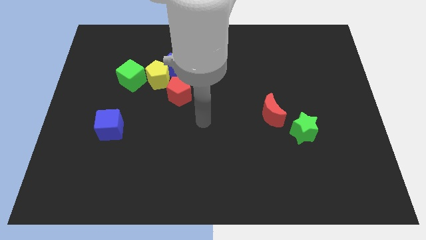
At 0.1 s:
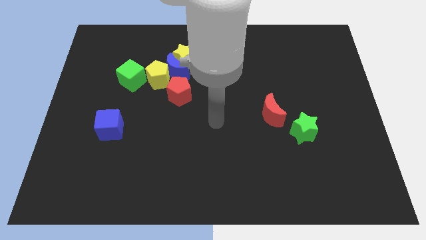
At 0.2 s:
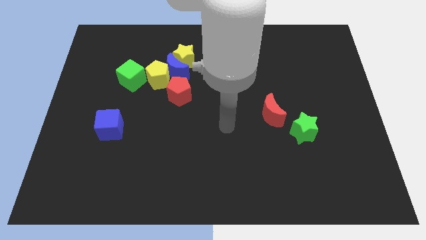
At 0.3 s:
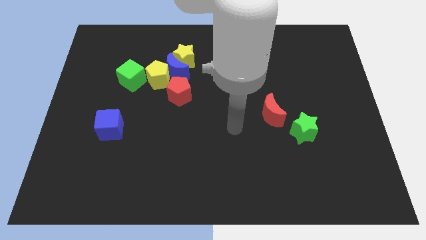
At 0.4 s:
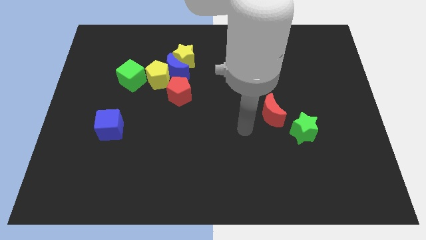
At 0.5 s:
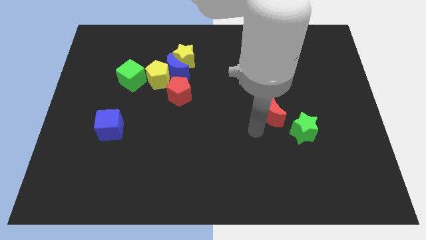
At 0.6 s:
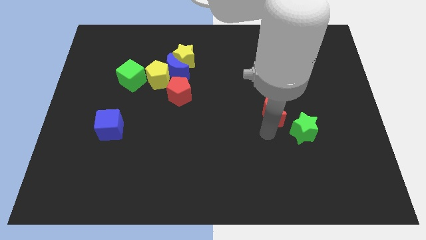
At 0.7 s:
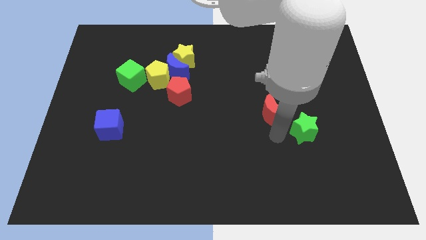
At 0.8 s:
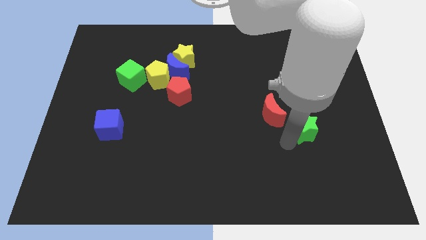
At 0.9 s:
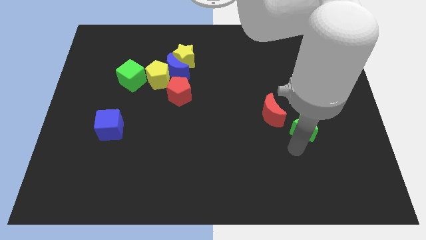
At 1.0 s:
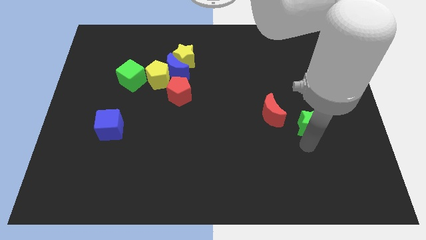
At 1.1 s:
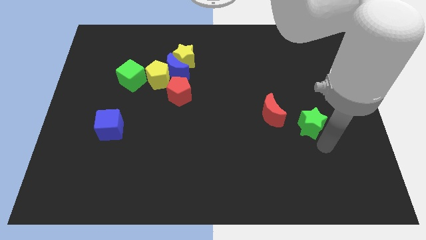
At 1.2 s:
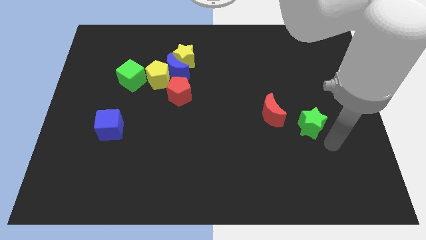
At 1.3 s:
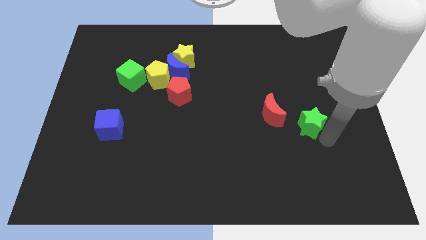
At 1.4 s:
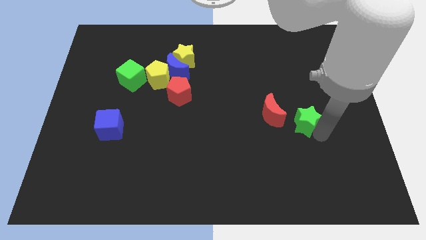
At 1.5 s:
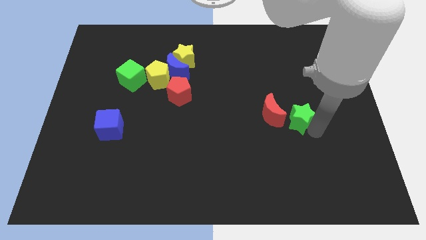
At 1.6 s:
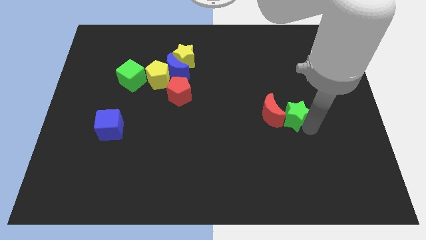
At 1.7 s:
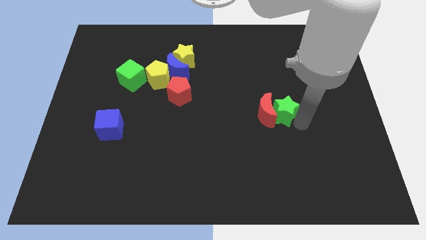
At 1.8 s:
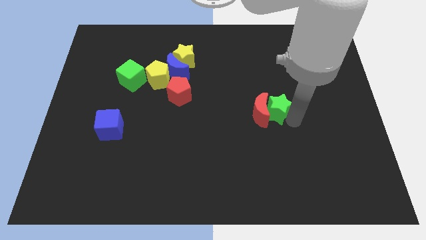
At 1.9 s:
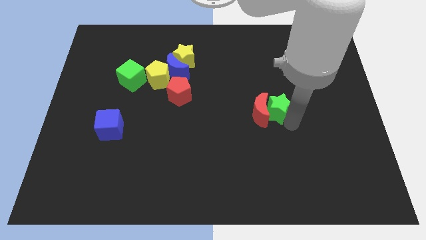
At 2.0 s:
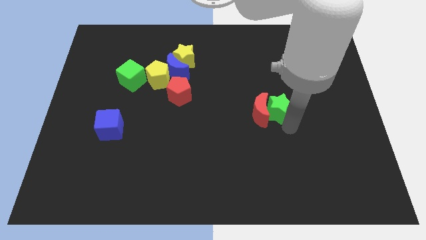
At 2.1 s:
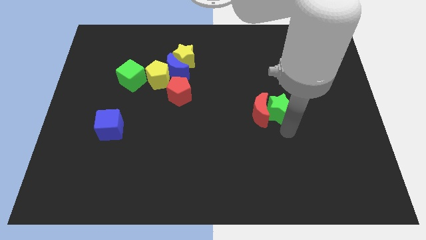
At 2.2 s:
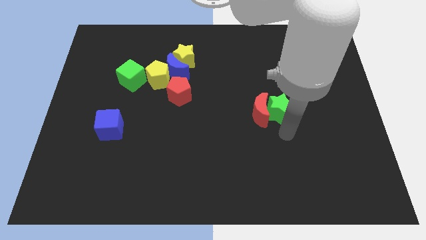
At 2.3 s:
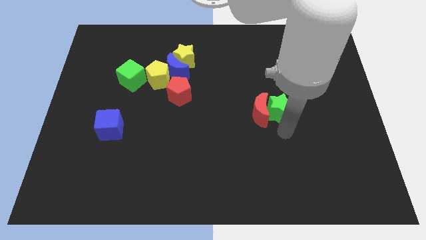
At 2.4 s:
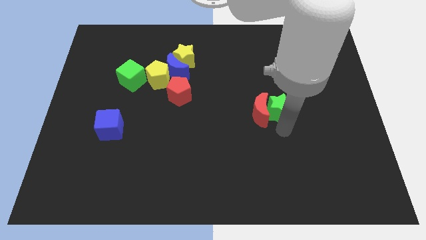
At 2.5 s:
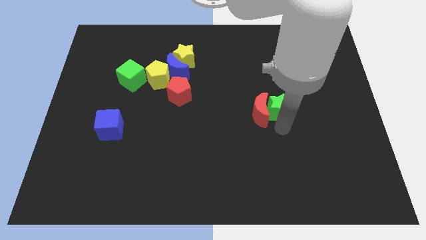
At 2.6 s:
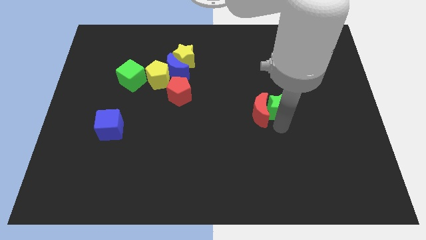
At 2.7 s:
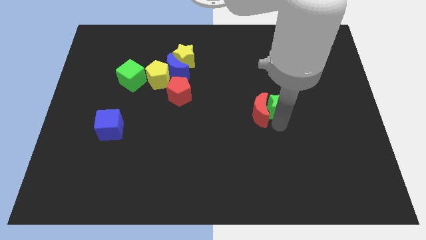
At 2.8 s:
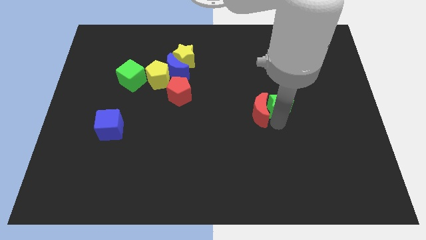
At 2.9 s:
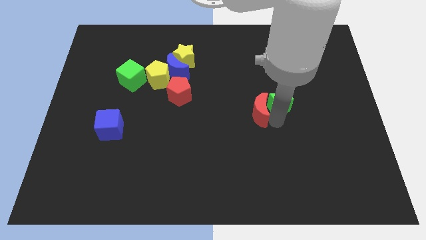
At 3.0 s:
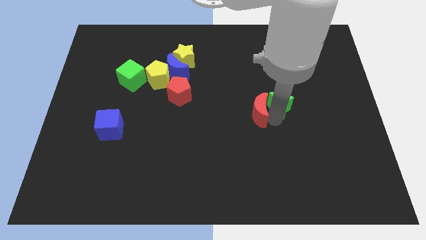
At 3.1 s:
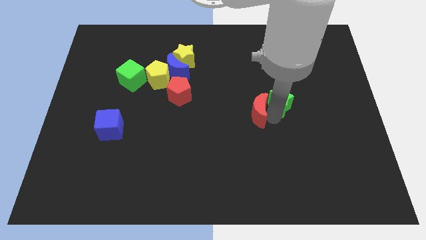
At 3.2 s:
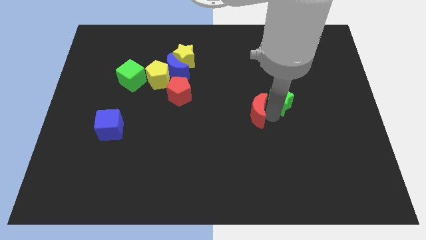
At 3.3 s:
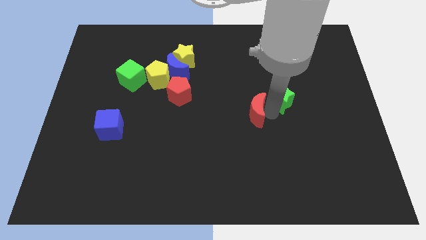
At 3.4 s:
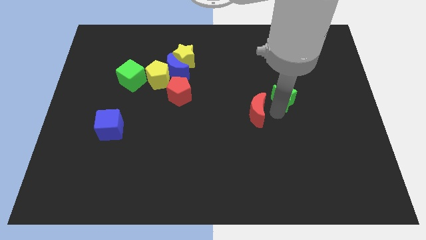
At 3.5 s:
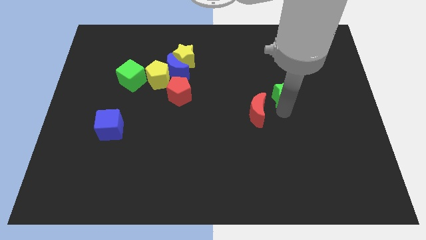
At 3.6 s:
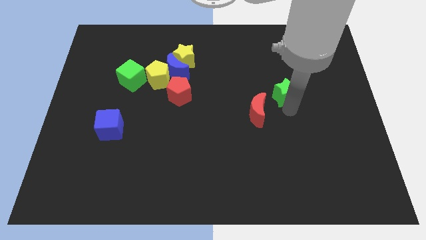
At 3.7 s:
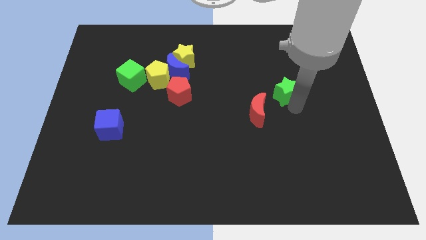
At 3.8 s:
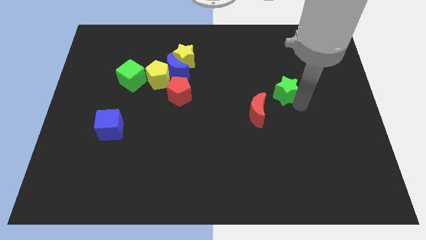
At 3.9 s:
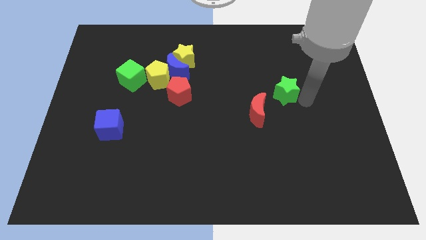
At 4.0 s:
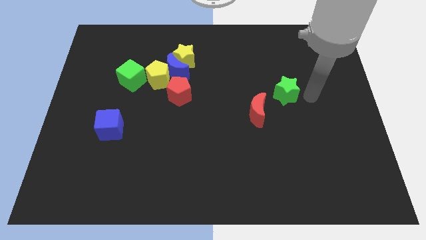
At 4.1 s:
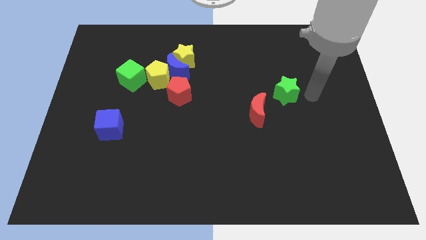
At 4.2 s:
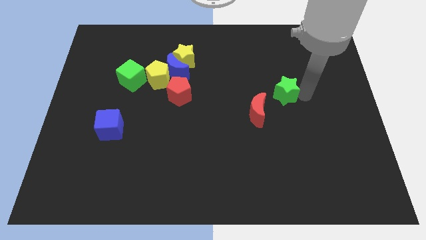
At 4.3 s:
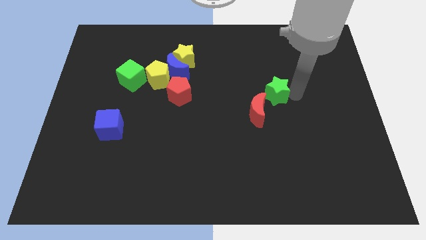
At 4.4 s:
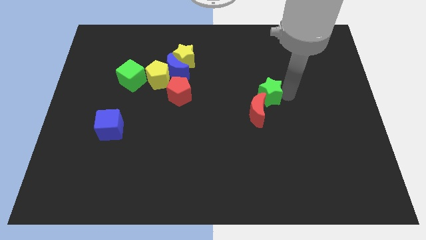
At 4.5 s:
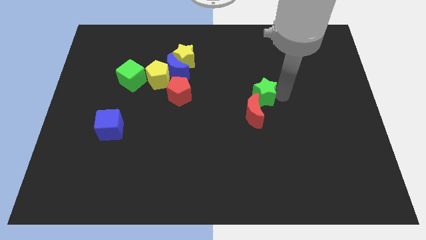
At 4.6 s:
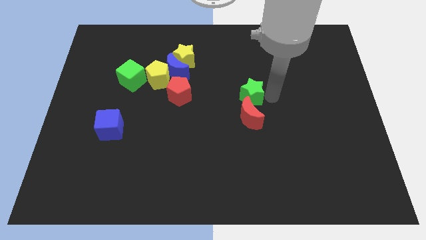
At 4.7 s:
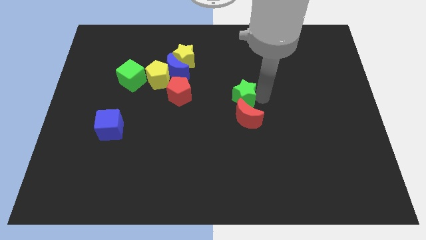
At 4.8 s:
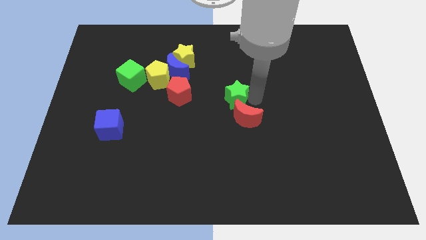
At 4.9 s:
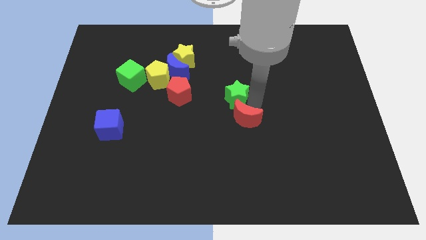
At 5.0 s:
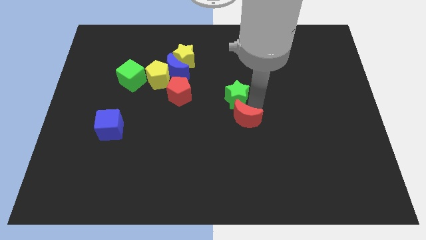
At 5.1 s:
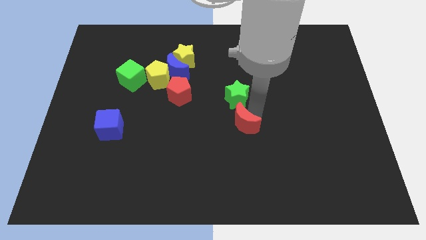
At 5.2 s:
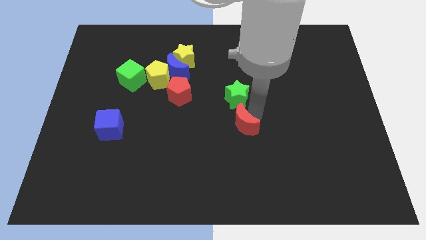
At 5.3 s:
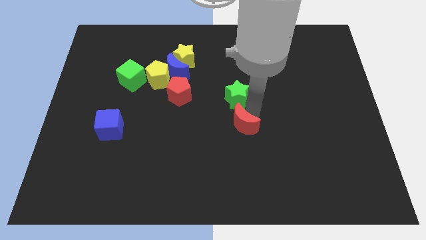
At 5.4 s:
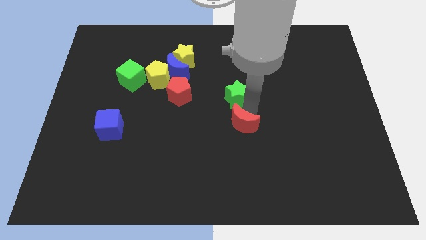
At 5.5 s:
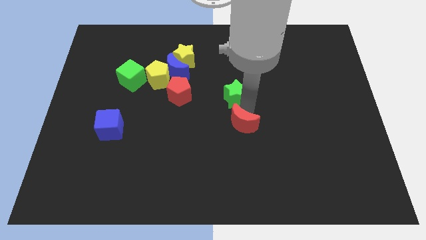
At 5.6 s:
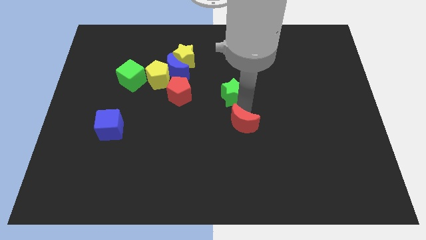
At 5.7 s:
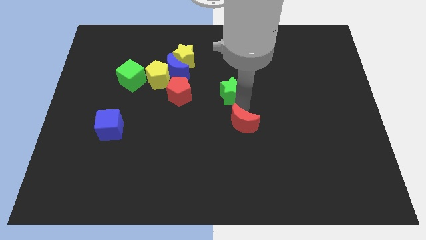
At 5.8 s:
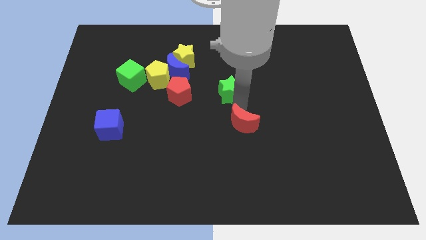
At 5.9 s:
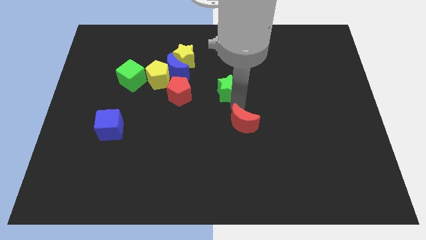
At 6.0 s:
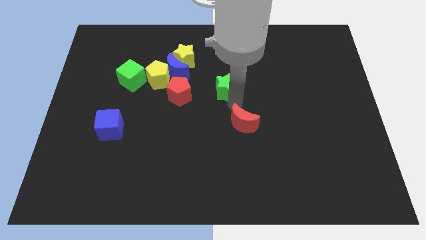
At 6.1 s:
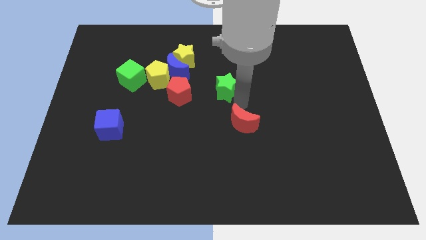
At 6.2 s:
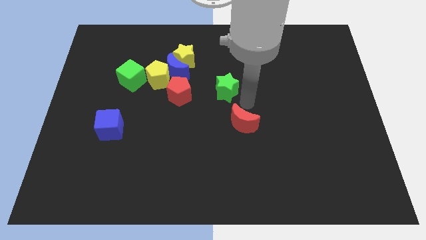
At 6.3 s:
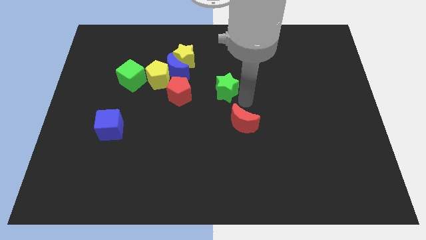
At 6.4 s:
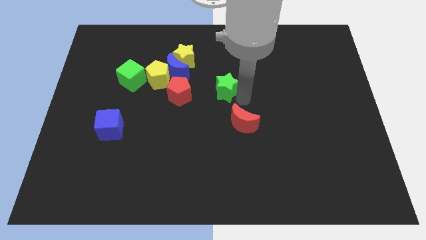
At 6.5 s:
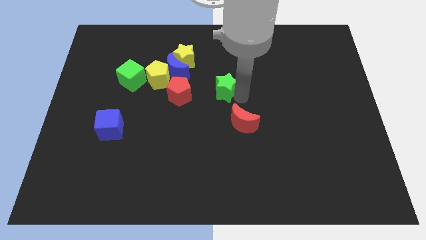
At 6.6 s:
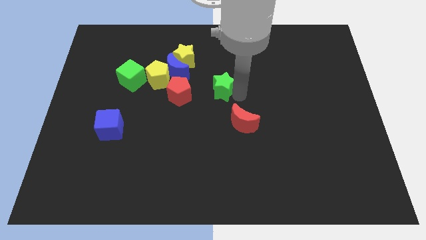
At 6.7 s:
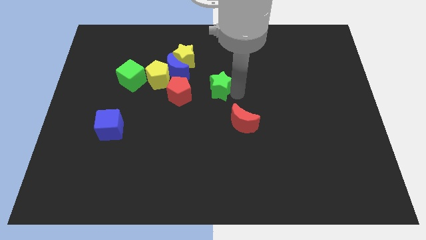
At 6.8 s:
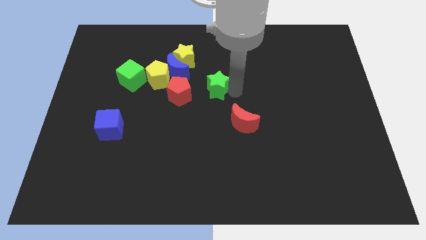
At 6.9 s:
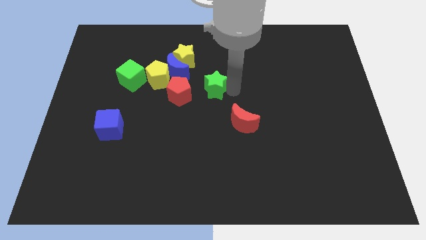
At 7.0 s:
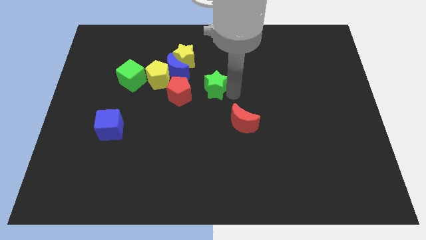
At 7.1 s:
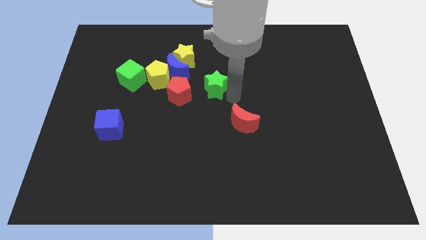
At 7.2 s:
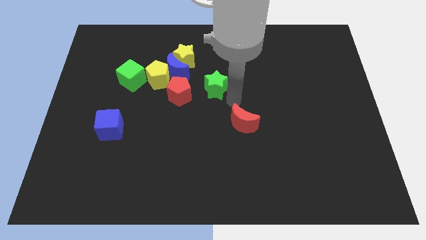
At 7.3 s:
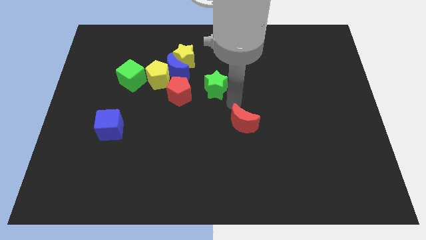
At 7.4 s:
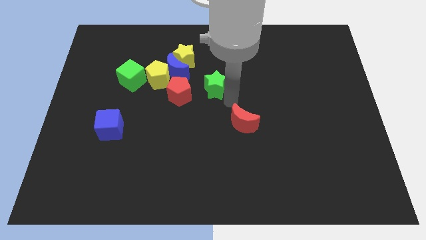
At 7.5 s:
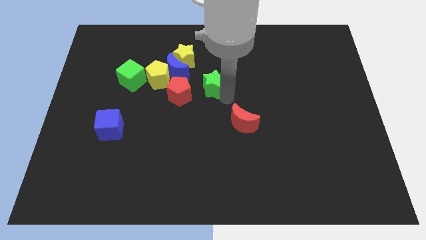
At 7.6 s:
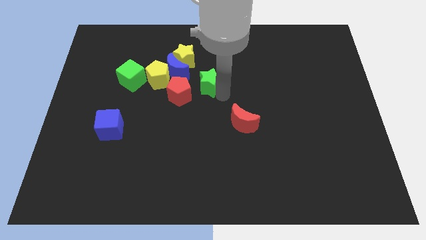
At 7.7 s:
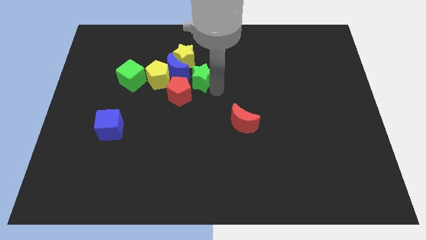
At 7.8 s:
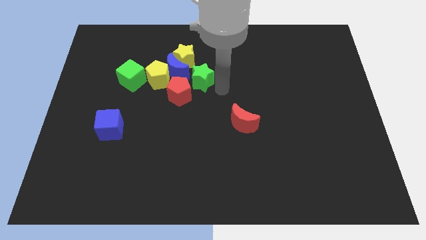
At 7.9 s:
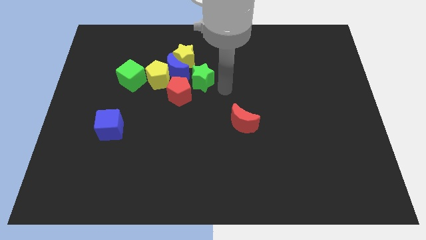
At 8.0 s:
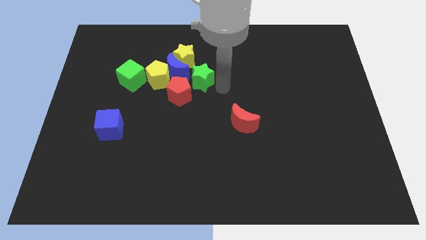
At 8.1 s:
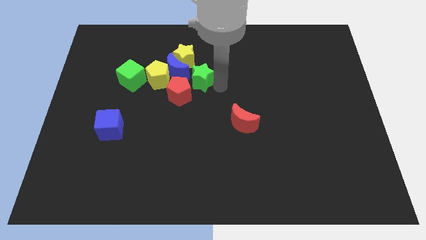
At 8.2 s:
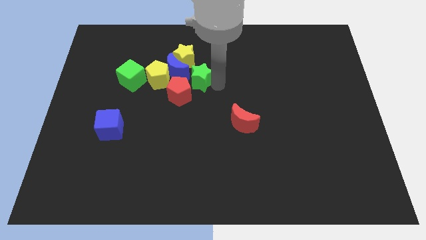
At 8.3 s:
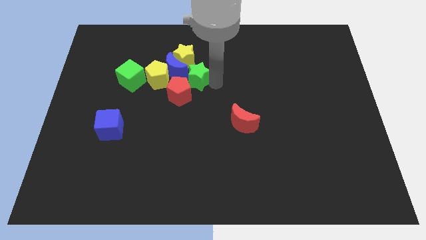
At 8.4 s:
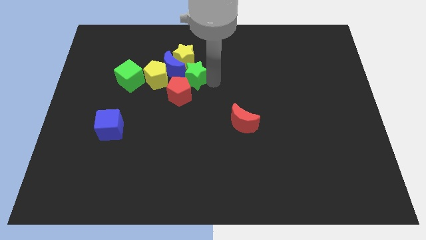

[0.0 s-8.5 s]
push the green star to the blue moon
